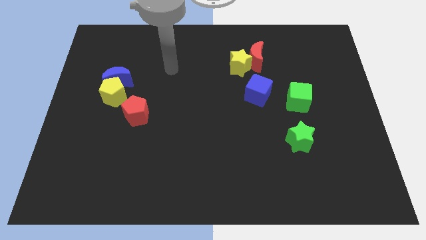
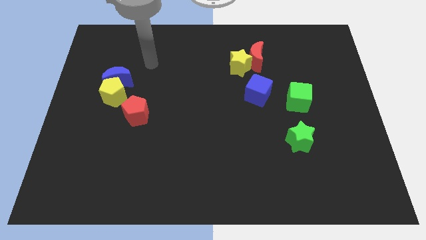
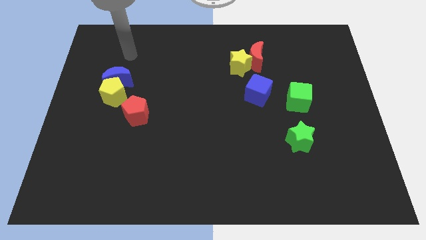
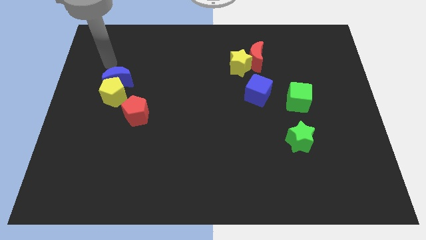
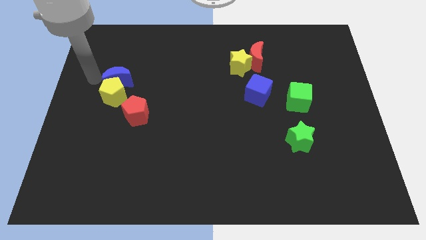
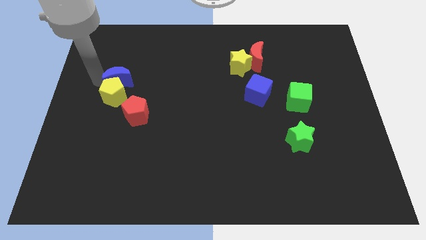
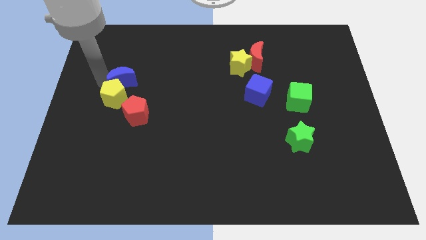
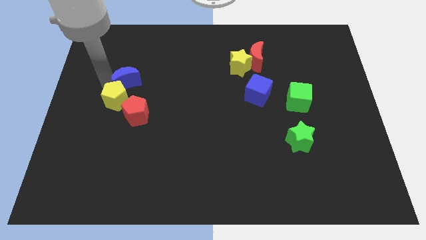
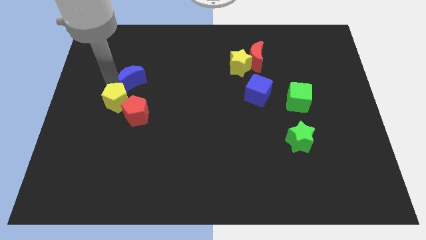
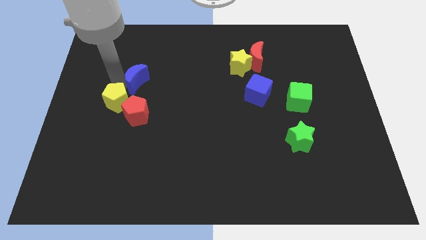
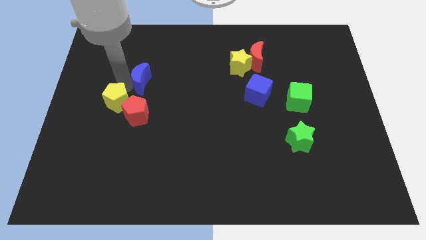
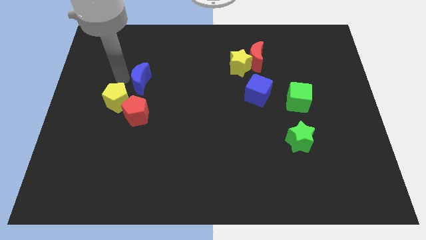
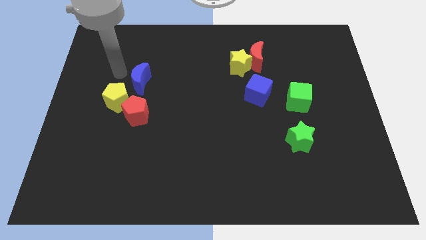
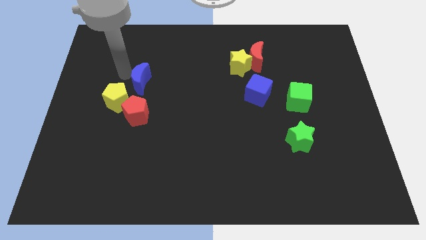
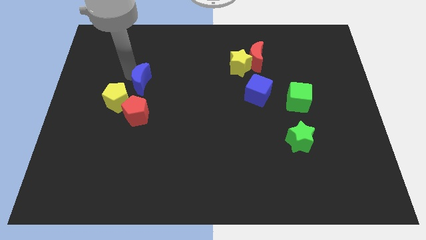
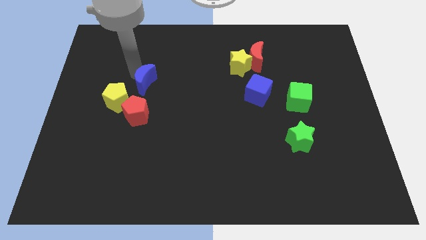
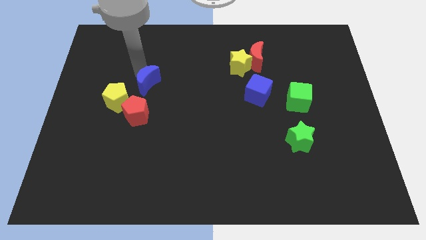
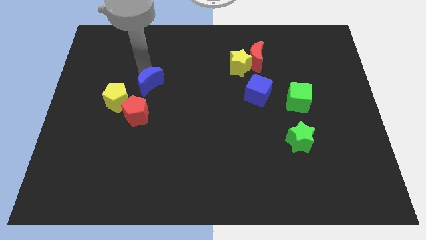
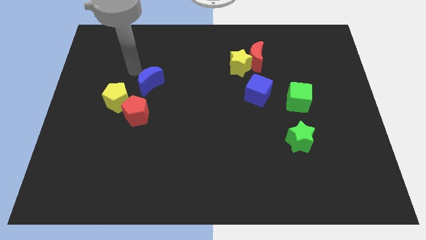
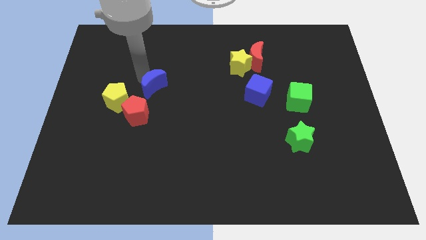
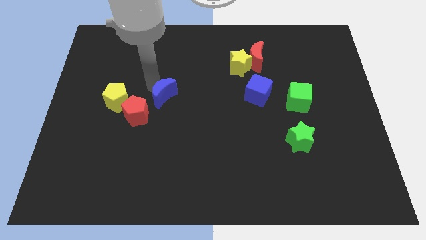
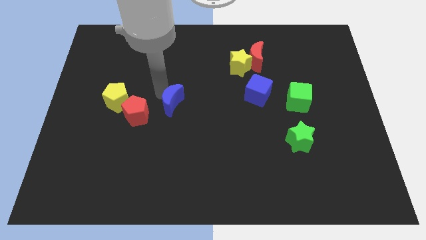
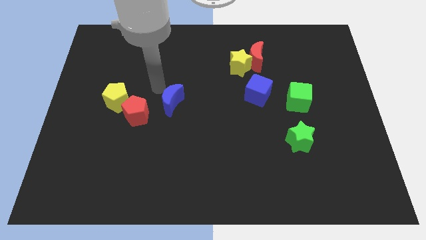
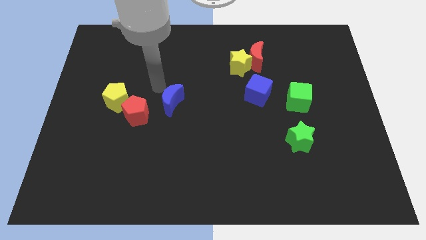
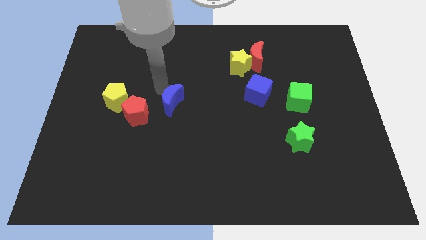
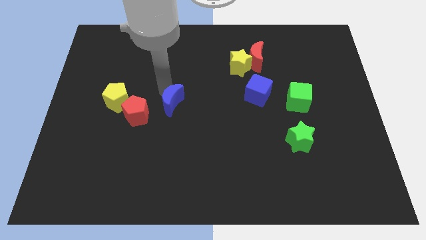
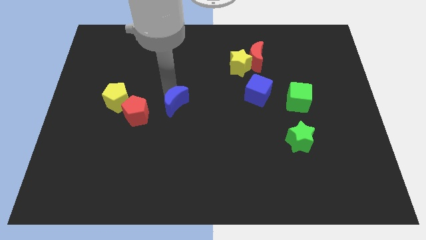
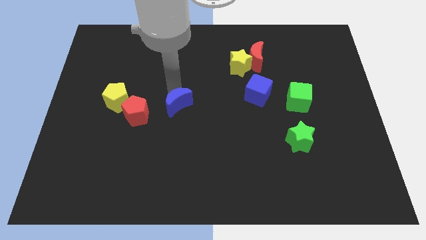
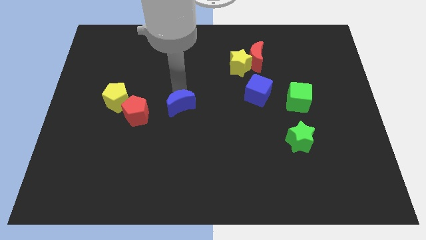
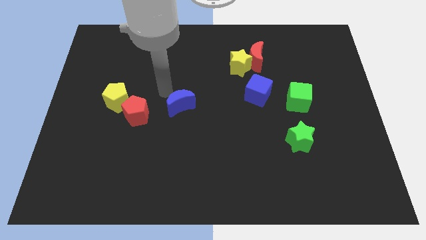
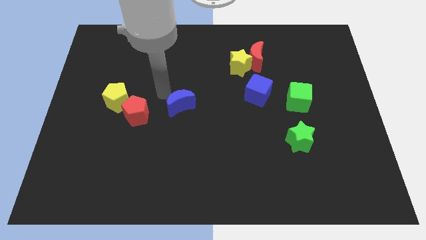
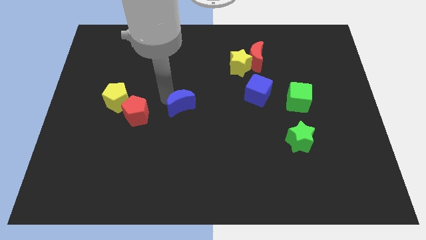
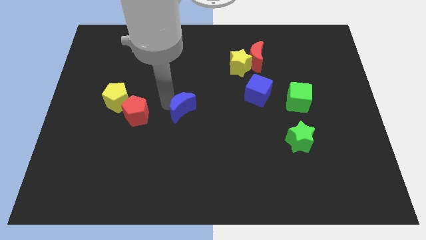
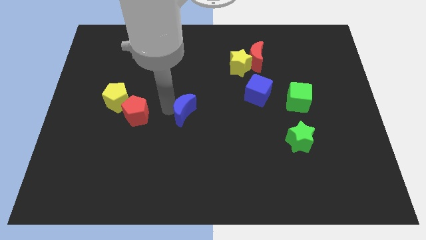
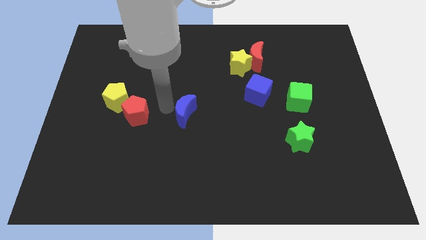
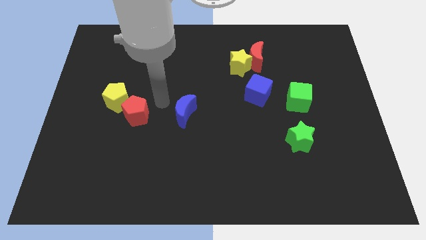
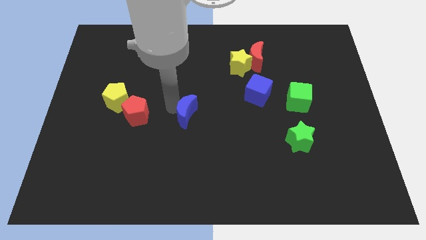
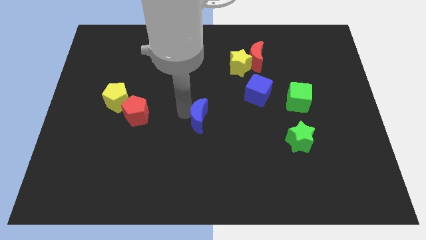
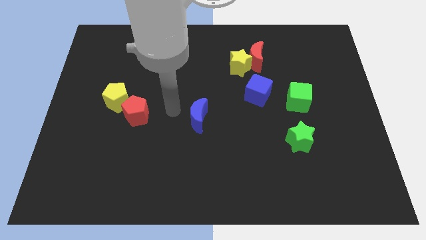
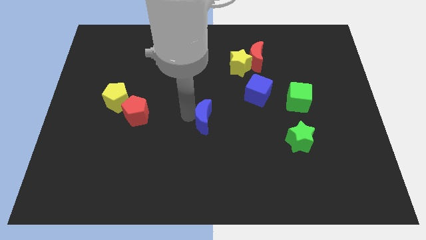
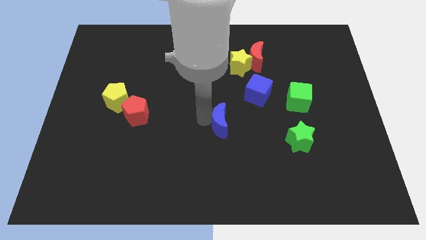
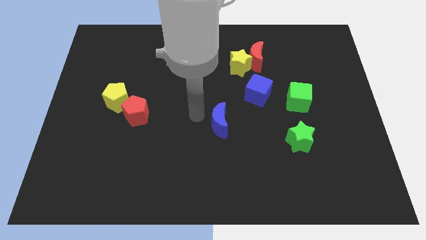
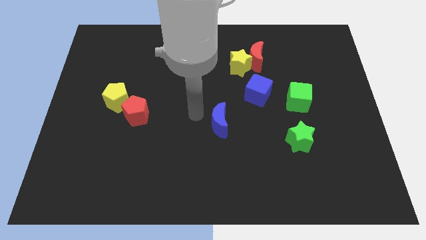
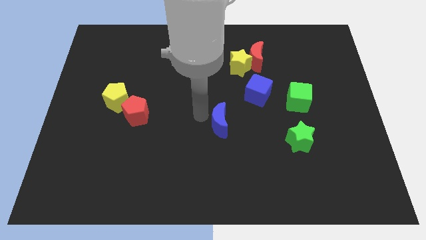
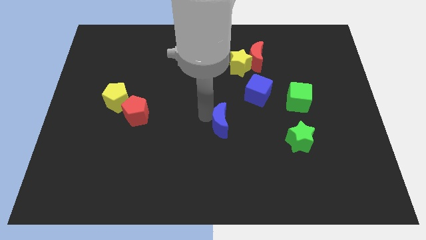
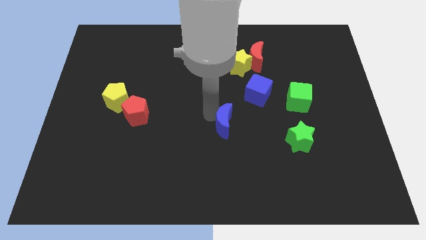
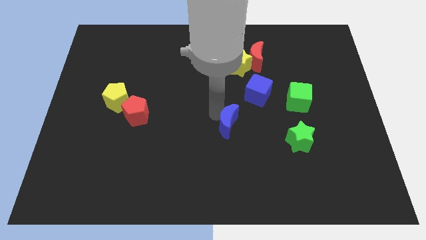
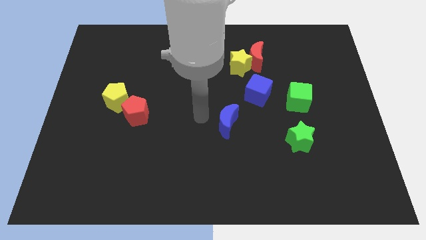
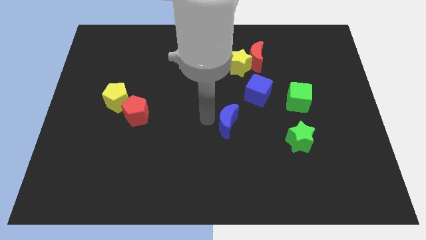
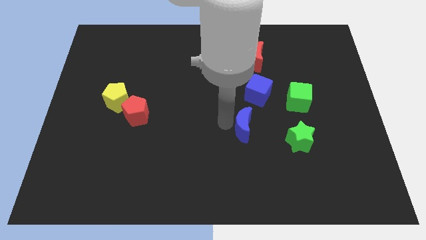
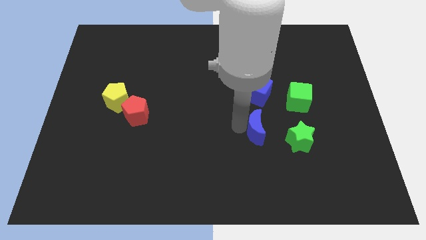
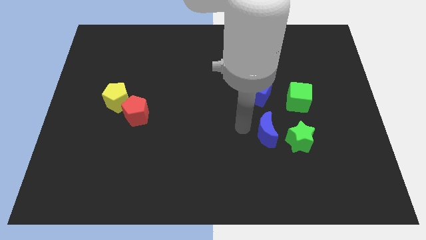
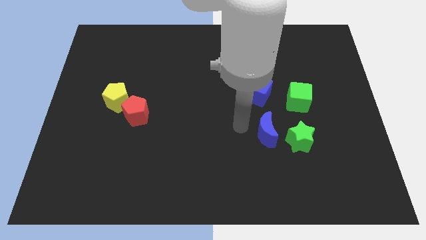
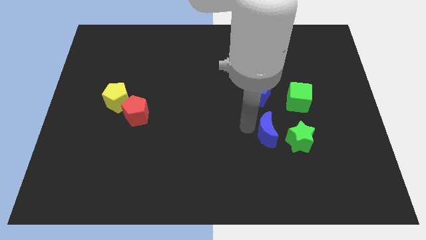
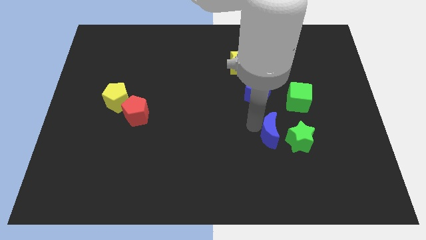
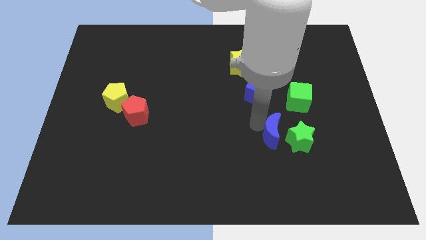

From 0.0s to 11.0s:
slide the blue moon close to the green star

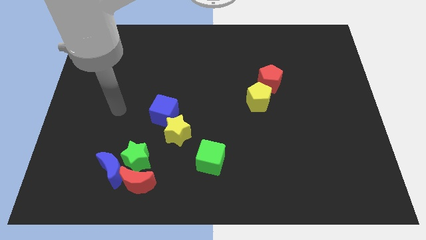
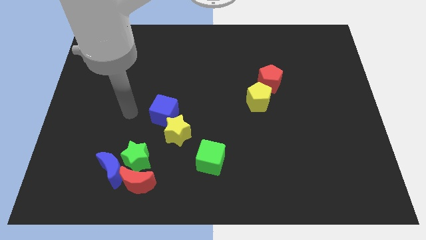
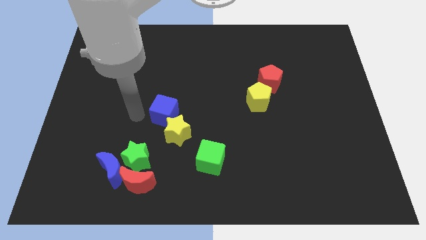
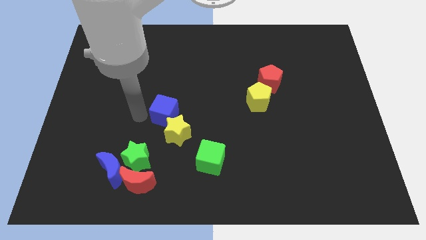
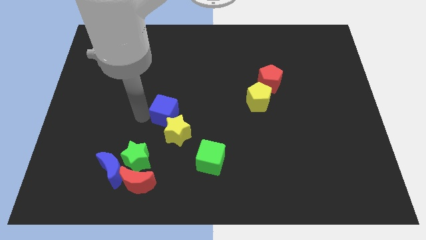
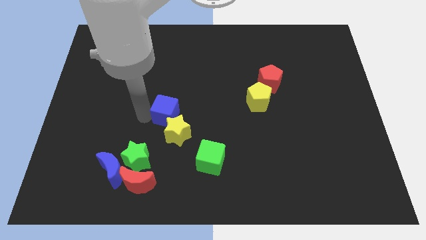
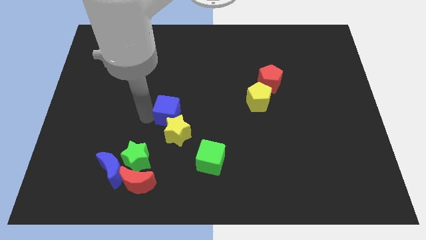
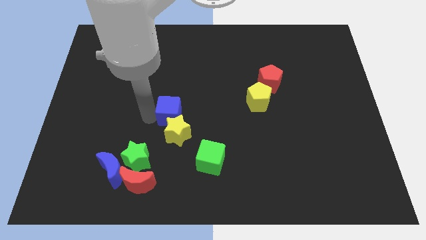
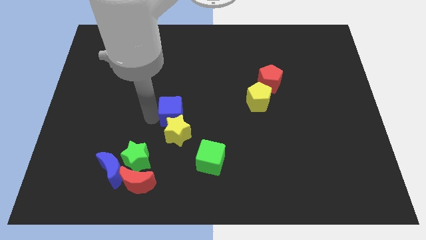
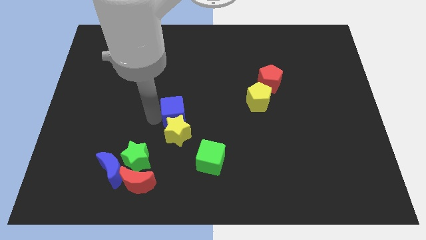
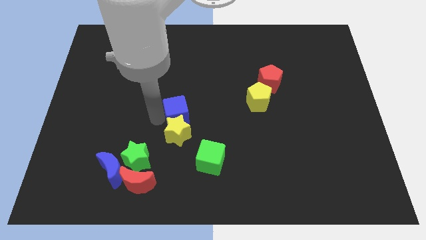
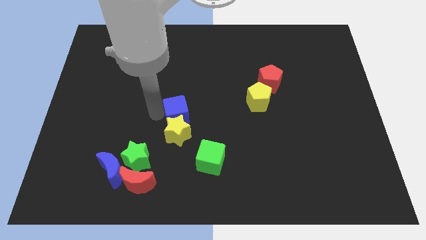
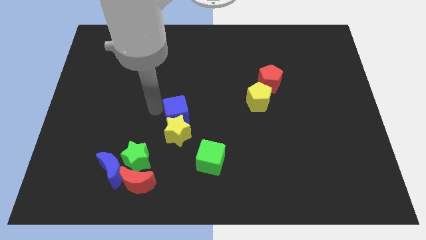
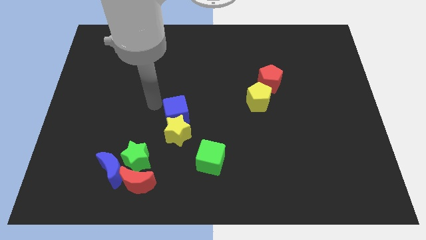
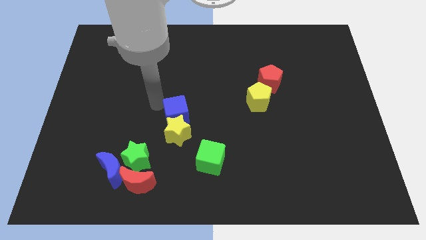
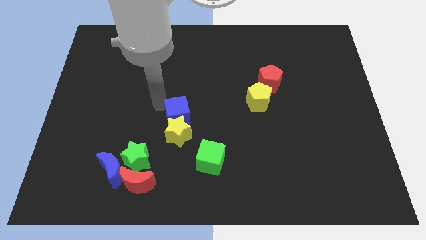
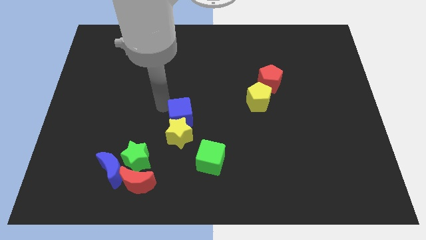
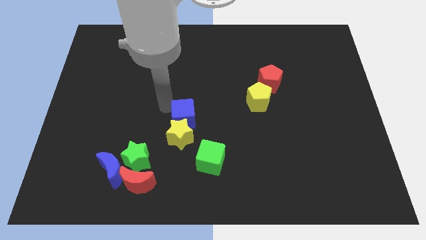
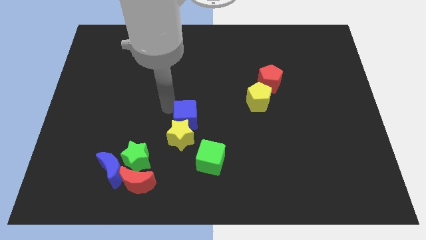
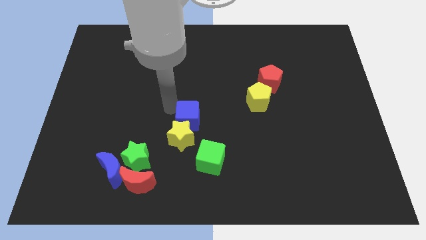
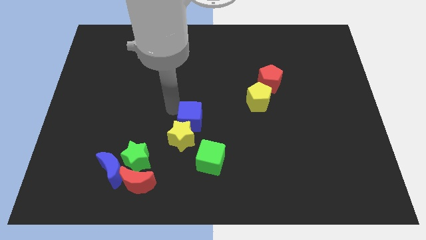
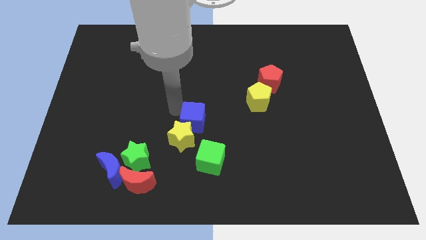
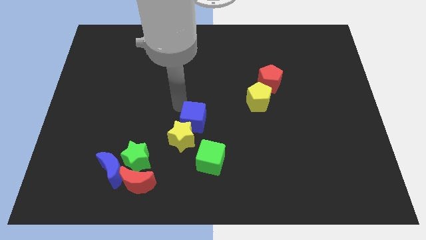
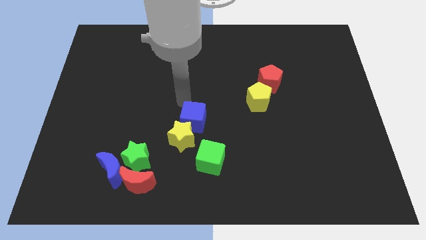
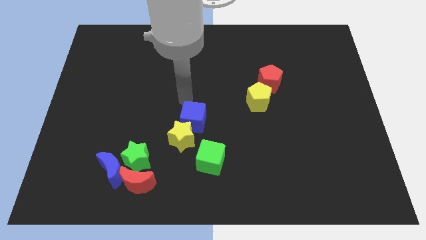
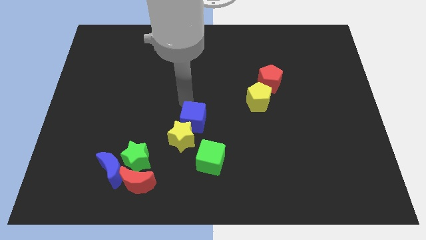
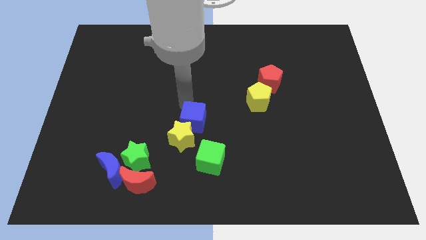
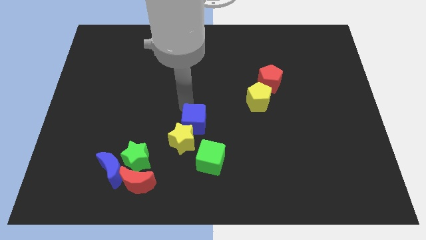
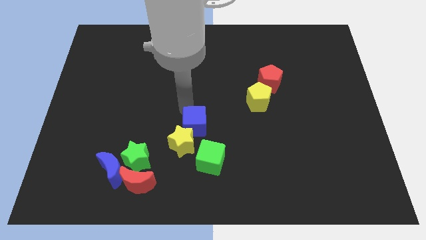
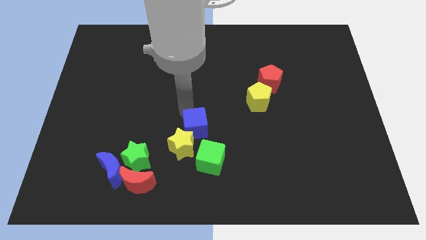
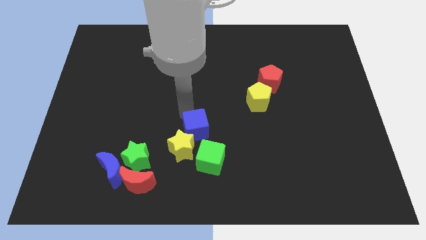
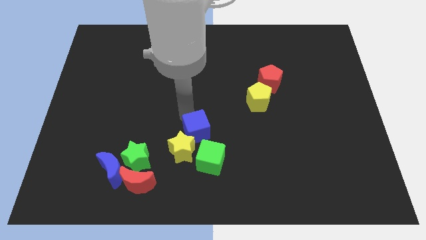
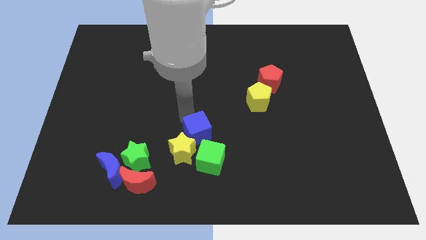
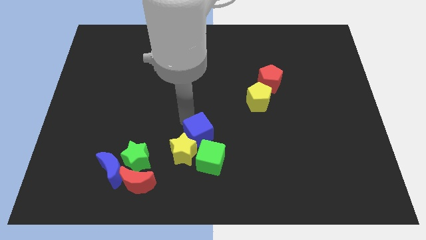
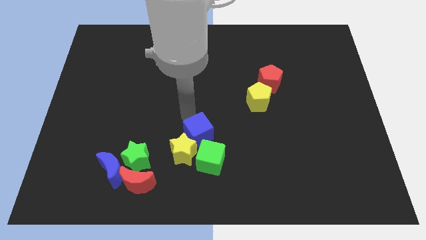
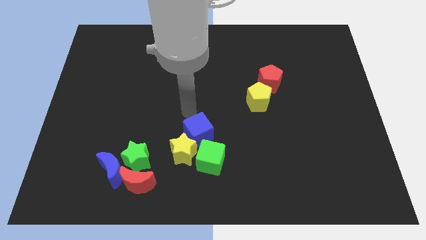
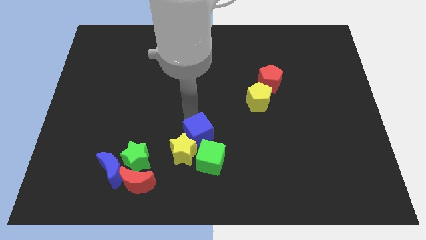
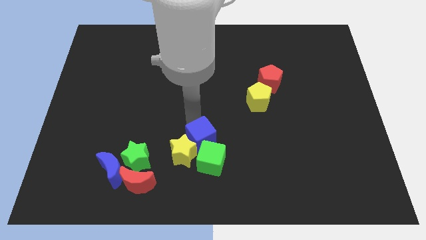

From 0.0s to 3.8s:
put the blue cube close to the green cube
